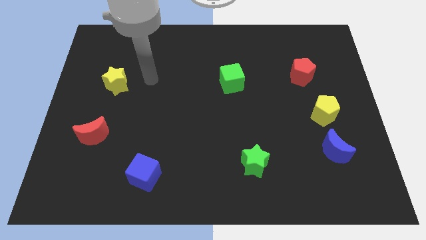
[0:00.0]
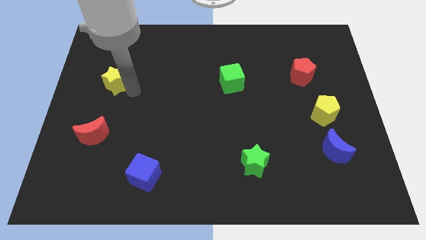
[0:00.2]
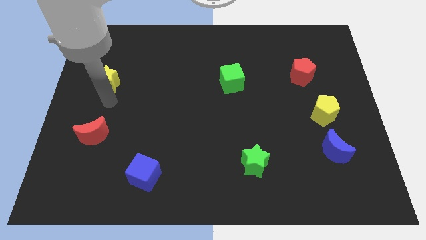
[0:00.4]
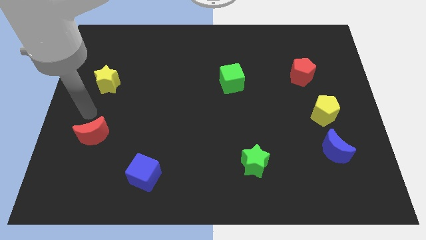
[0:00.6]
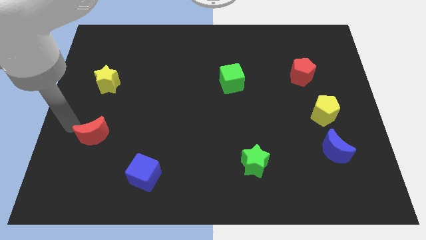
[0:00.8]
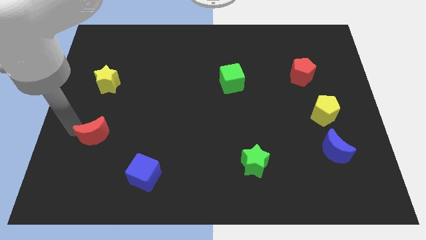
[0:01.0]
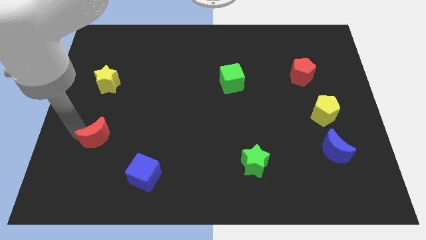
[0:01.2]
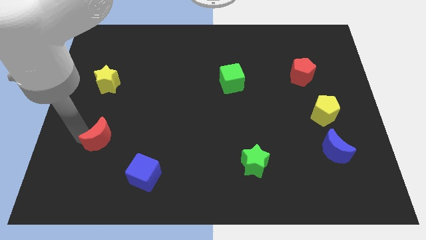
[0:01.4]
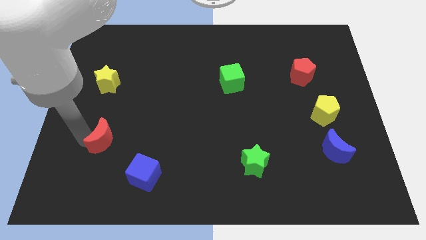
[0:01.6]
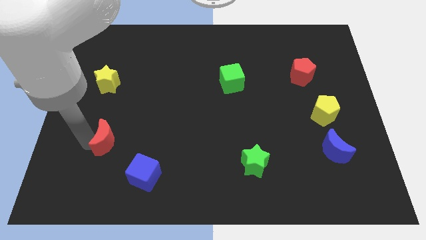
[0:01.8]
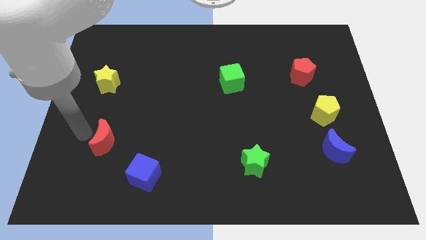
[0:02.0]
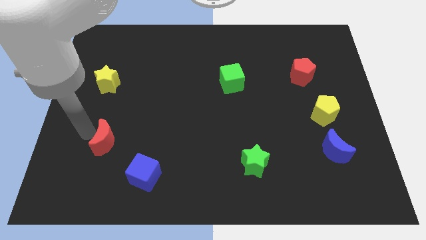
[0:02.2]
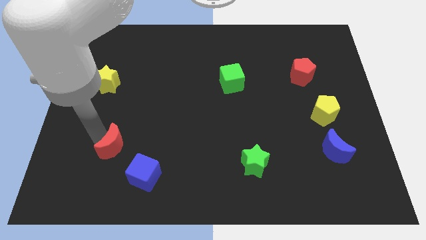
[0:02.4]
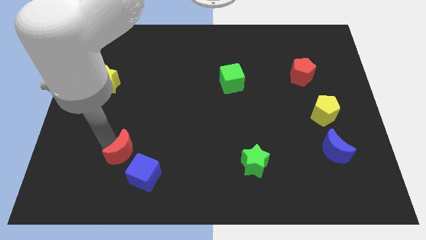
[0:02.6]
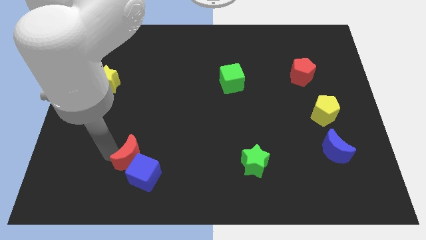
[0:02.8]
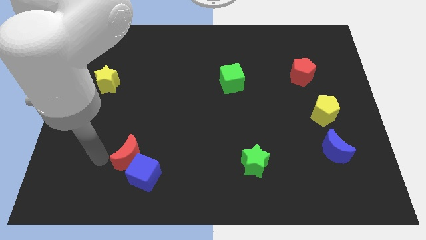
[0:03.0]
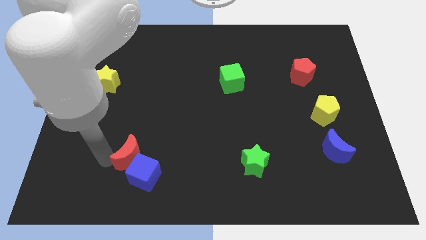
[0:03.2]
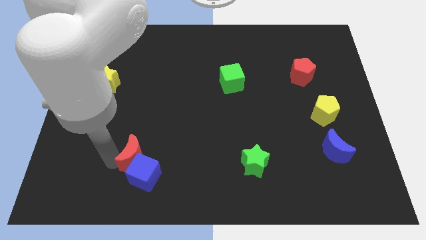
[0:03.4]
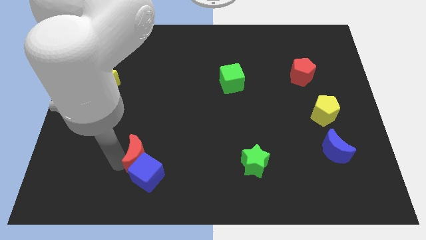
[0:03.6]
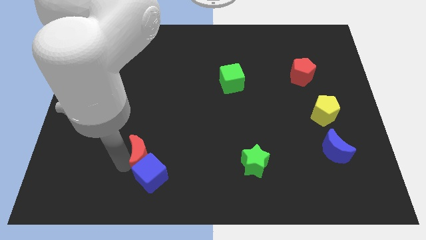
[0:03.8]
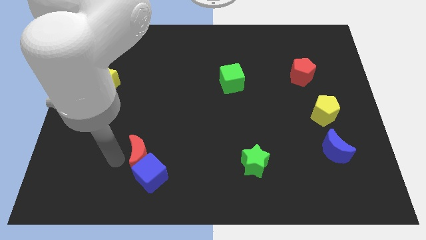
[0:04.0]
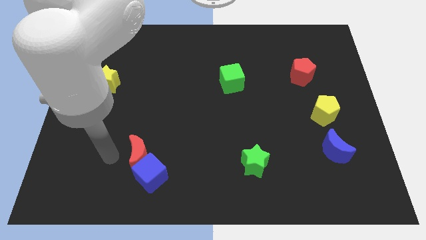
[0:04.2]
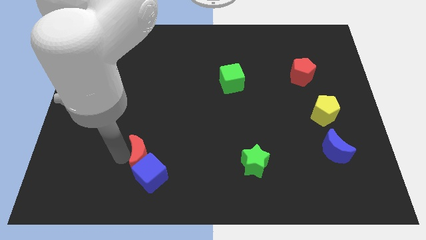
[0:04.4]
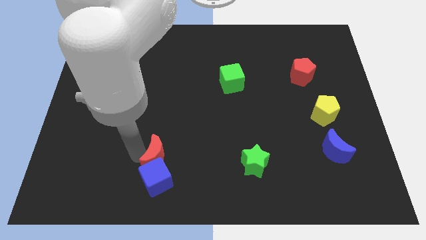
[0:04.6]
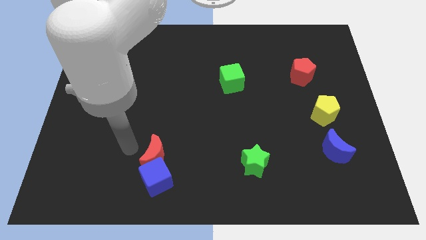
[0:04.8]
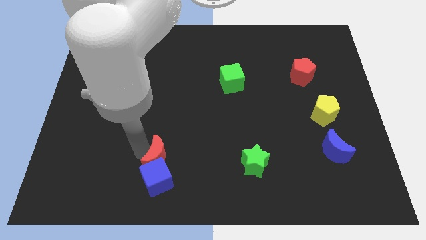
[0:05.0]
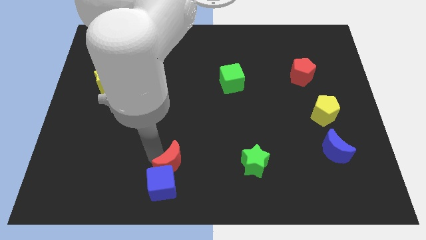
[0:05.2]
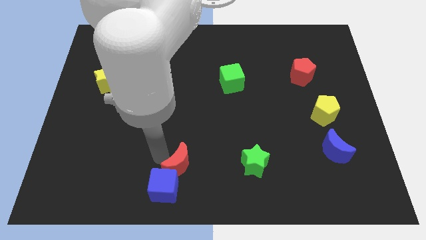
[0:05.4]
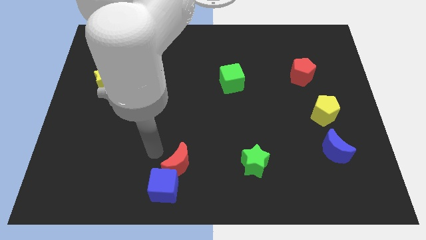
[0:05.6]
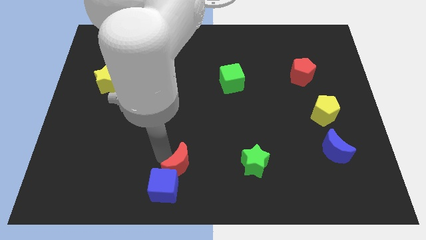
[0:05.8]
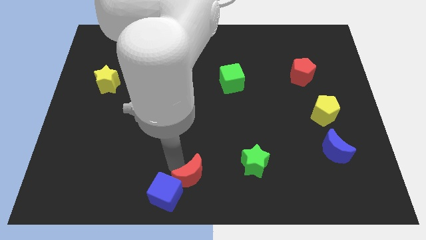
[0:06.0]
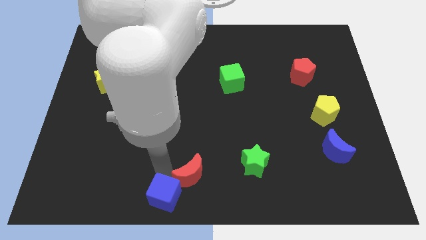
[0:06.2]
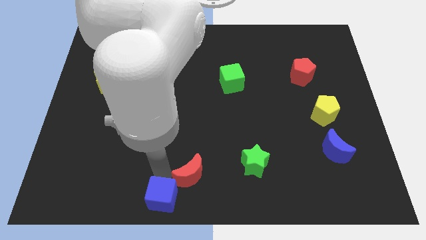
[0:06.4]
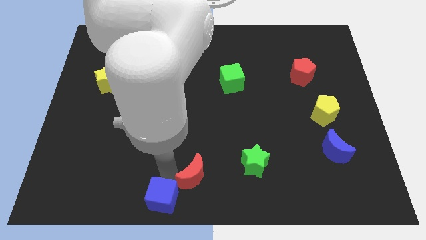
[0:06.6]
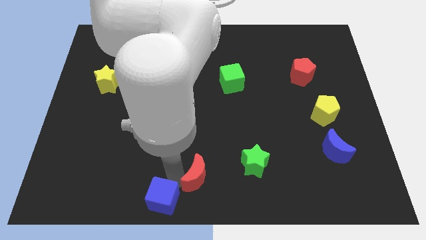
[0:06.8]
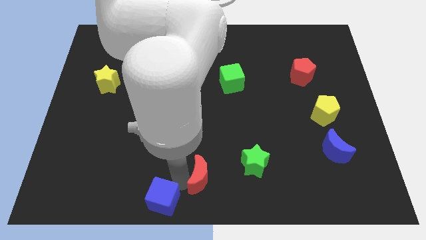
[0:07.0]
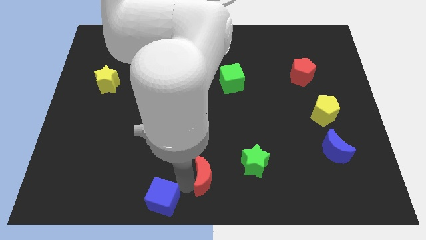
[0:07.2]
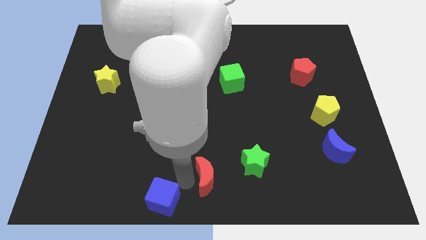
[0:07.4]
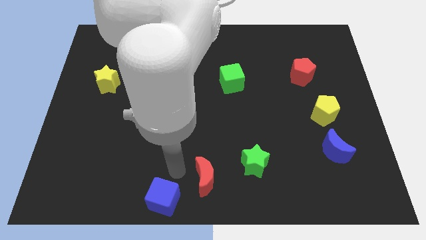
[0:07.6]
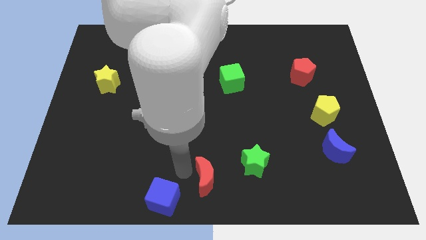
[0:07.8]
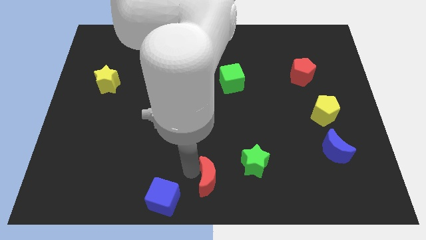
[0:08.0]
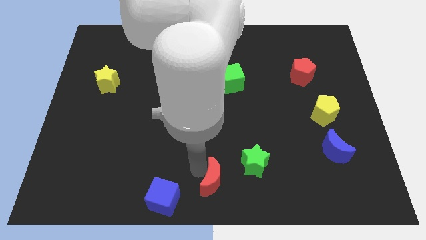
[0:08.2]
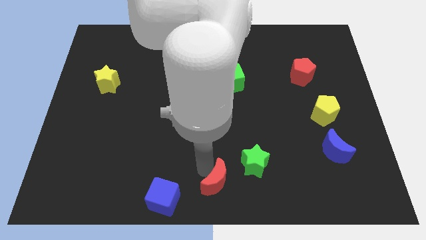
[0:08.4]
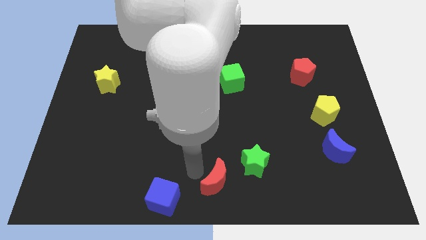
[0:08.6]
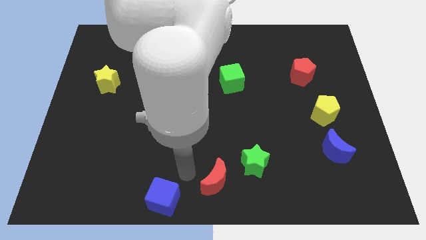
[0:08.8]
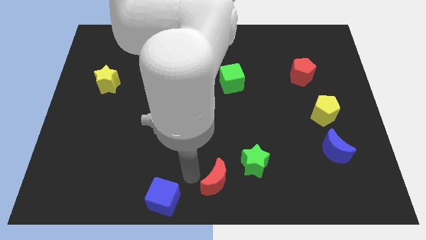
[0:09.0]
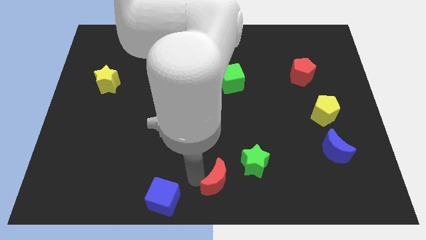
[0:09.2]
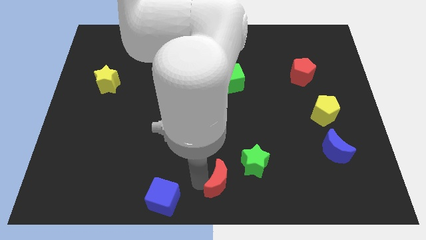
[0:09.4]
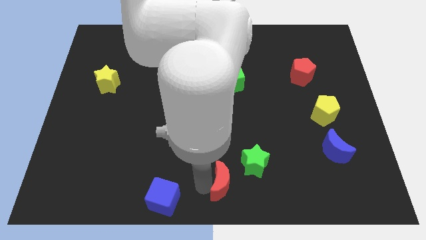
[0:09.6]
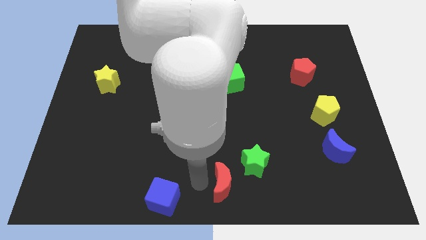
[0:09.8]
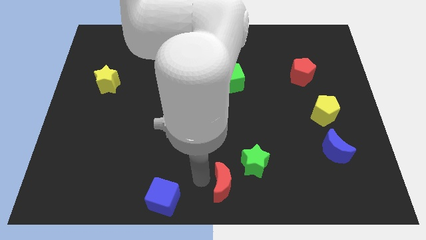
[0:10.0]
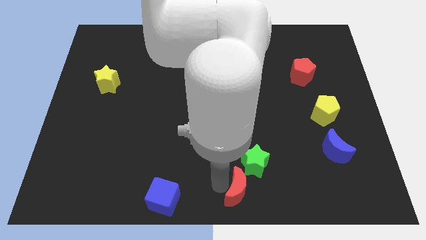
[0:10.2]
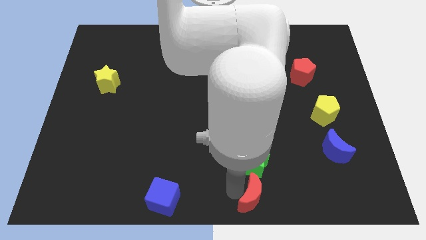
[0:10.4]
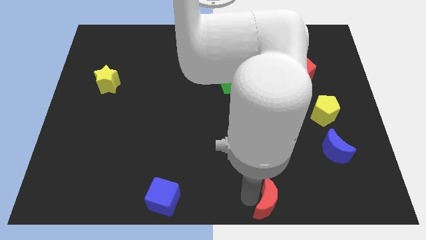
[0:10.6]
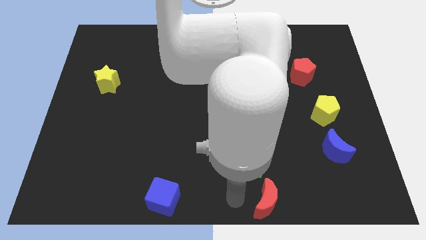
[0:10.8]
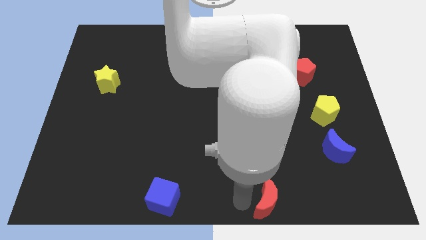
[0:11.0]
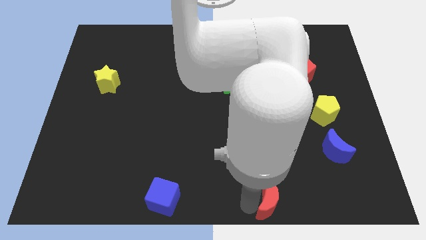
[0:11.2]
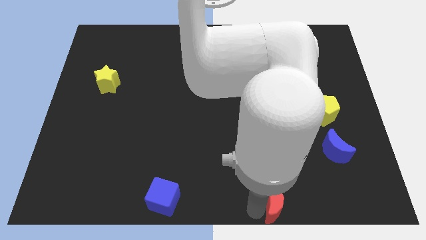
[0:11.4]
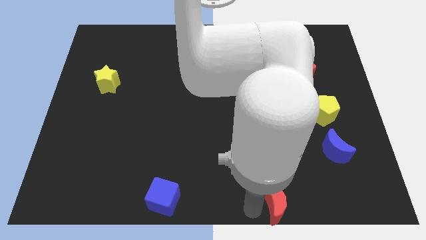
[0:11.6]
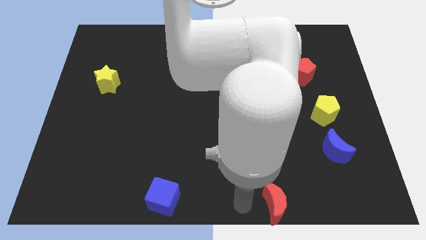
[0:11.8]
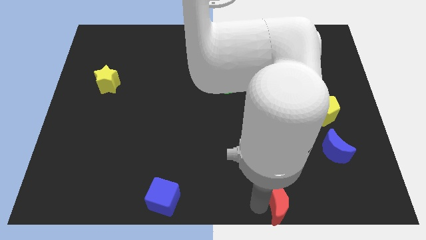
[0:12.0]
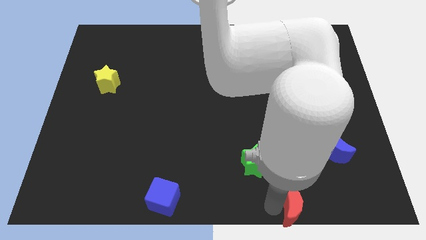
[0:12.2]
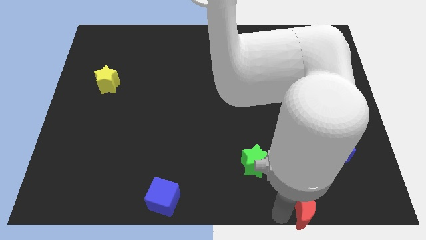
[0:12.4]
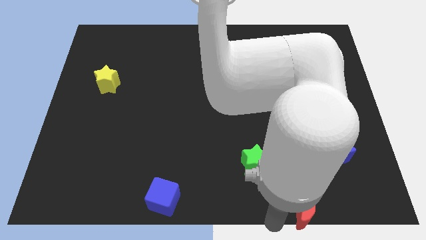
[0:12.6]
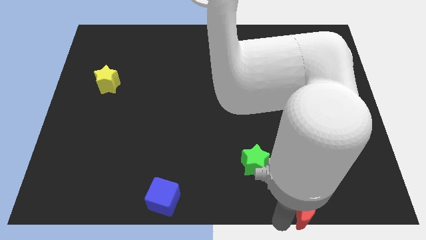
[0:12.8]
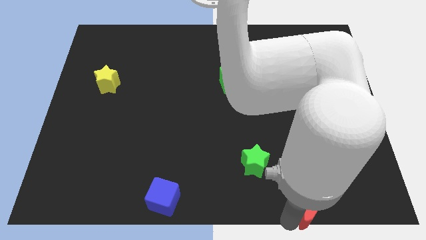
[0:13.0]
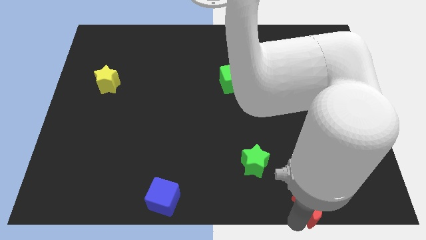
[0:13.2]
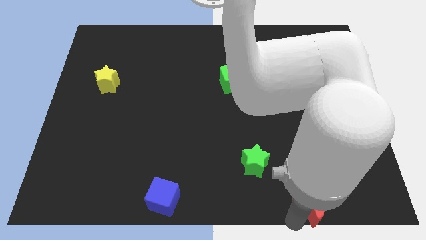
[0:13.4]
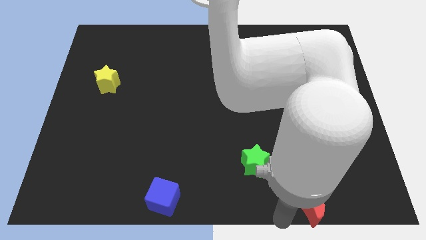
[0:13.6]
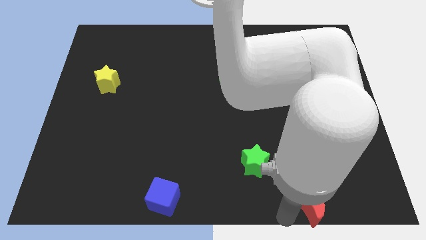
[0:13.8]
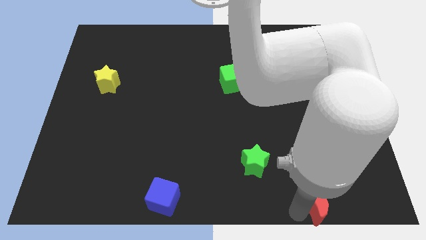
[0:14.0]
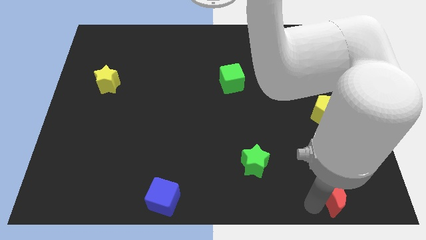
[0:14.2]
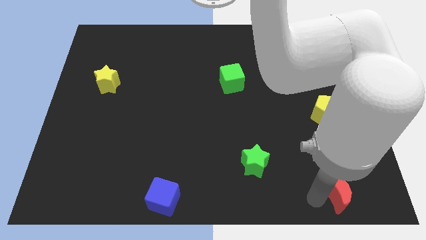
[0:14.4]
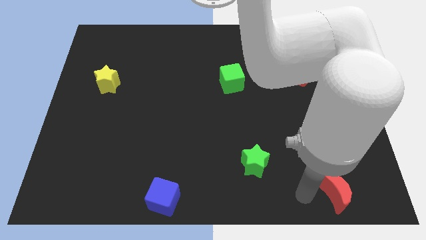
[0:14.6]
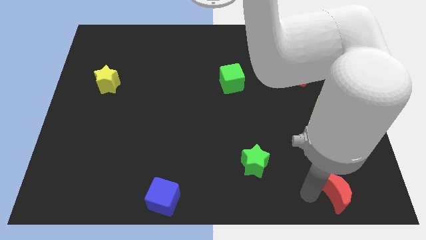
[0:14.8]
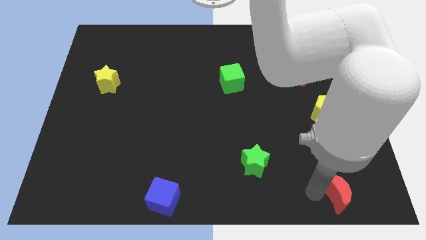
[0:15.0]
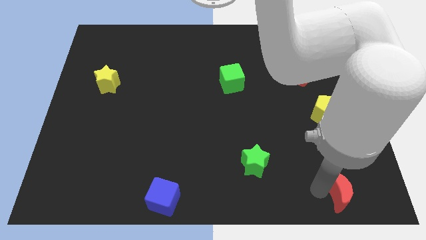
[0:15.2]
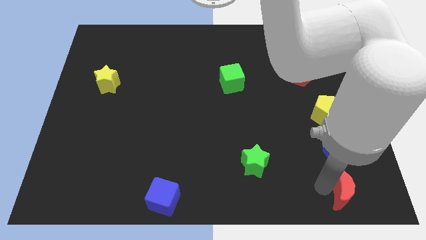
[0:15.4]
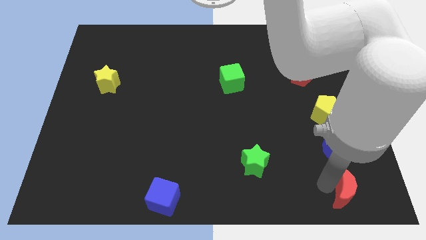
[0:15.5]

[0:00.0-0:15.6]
push the red moon to the bottom right
